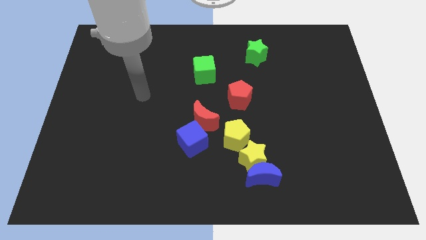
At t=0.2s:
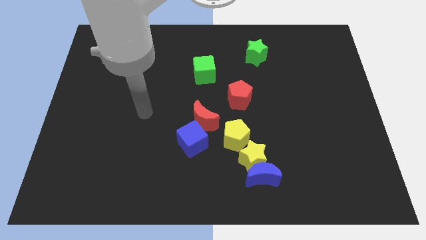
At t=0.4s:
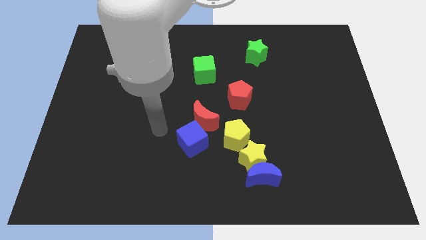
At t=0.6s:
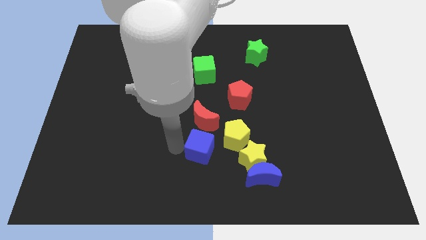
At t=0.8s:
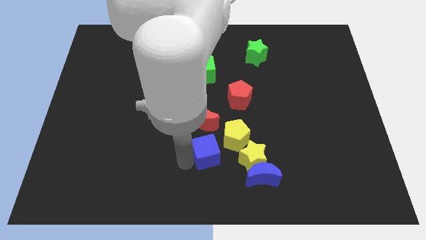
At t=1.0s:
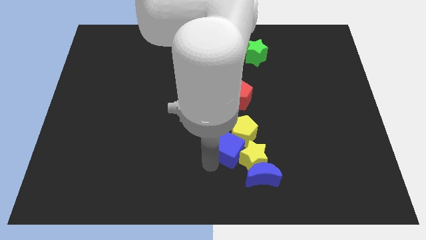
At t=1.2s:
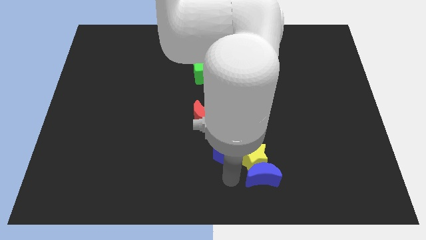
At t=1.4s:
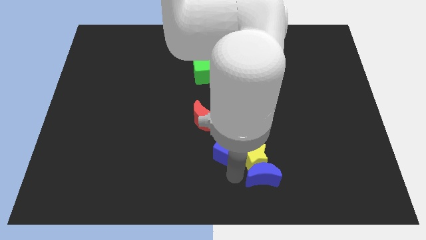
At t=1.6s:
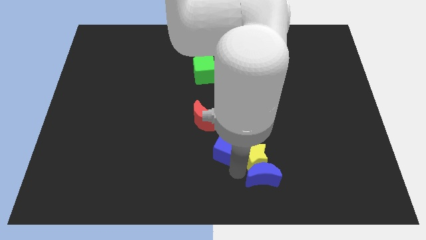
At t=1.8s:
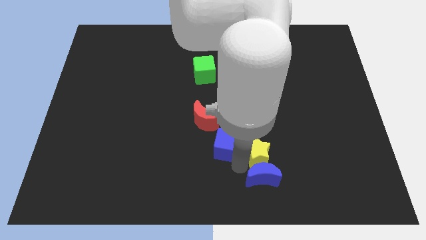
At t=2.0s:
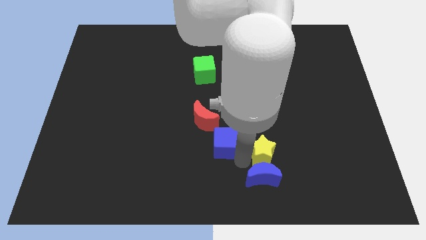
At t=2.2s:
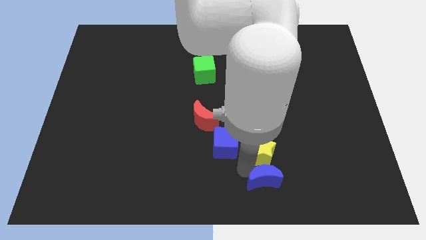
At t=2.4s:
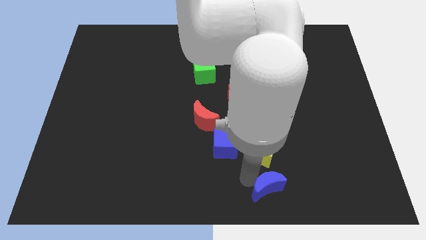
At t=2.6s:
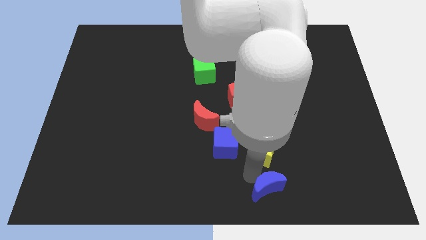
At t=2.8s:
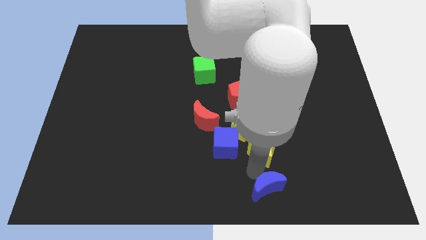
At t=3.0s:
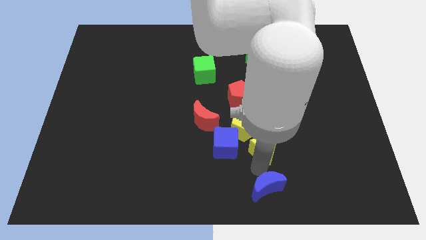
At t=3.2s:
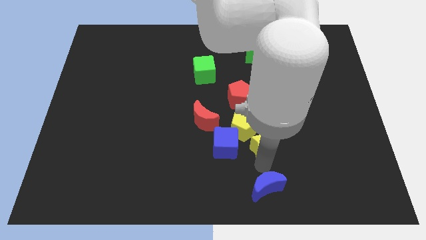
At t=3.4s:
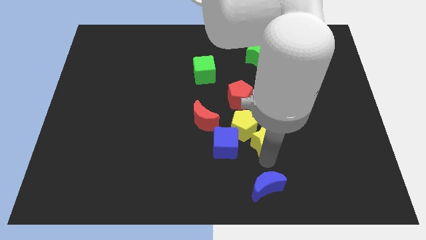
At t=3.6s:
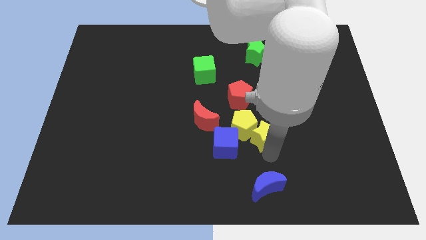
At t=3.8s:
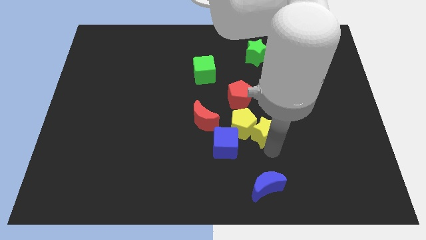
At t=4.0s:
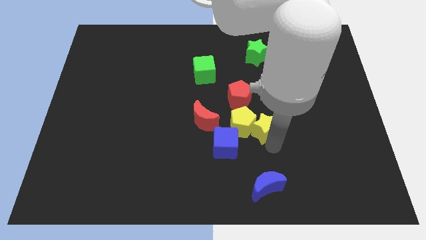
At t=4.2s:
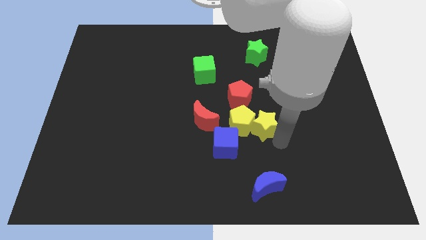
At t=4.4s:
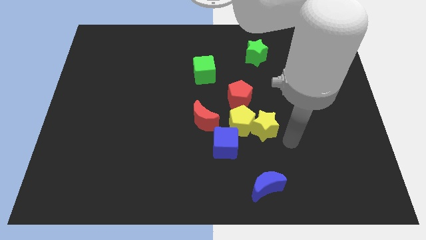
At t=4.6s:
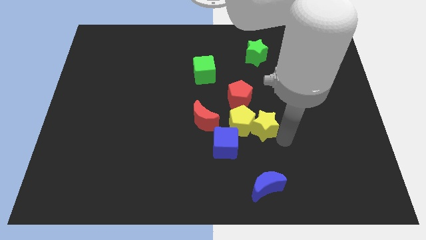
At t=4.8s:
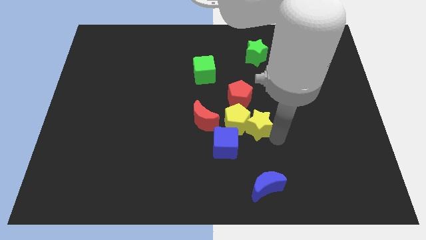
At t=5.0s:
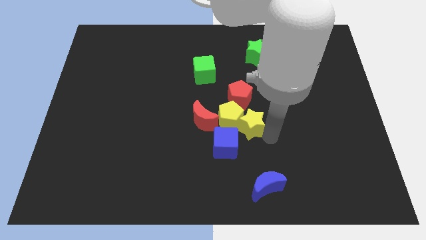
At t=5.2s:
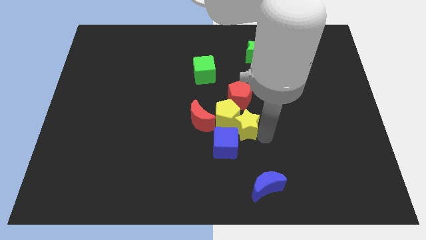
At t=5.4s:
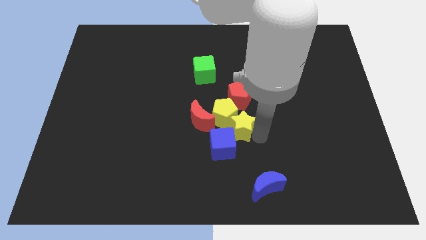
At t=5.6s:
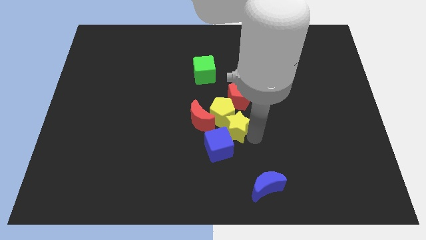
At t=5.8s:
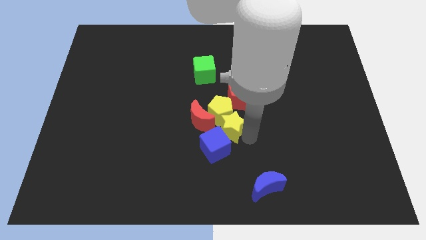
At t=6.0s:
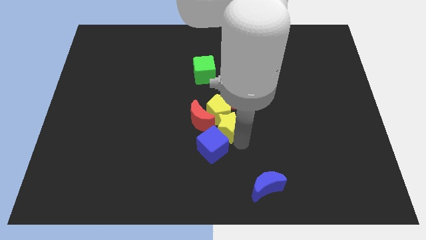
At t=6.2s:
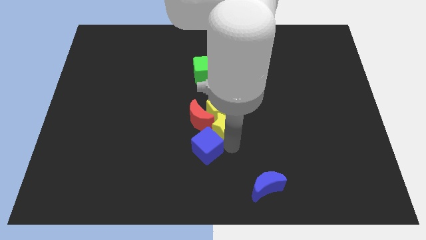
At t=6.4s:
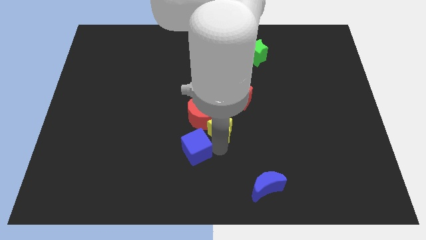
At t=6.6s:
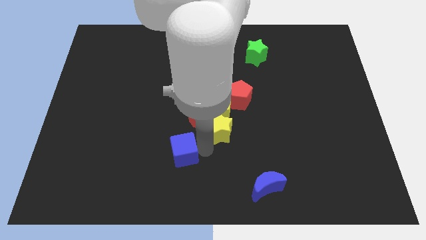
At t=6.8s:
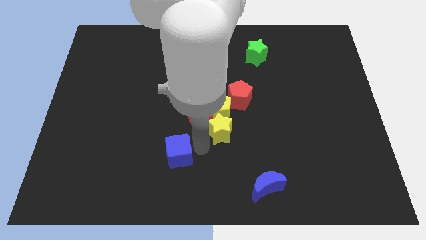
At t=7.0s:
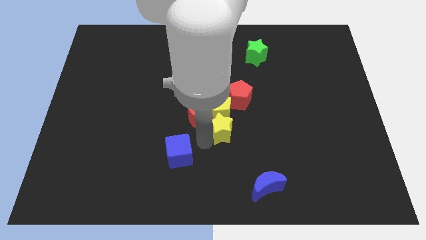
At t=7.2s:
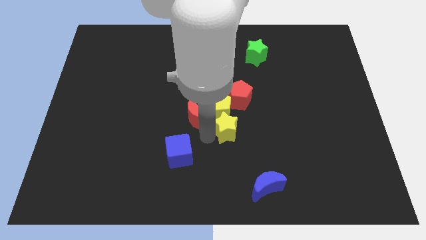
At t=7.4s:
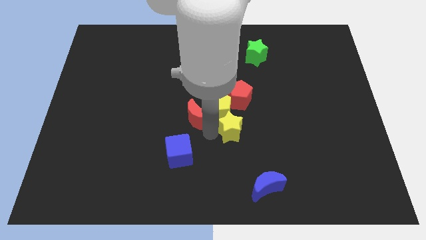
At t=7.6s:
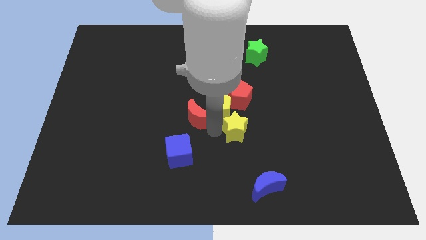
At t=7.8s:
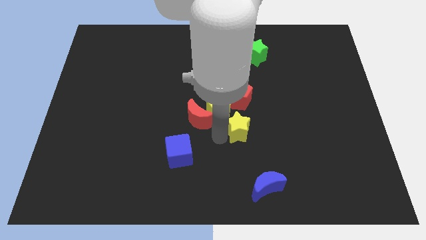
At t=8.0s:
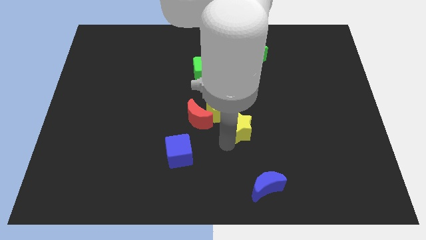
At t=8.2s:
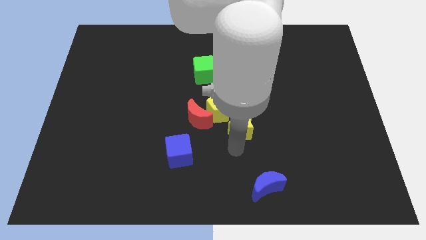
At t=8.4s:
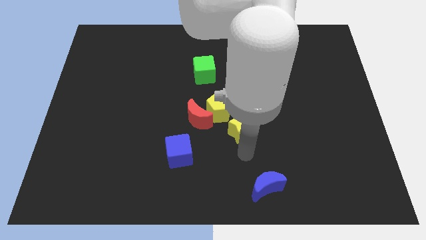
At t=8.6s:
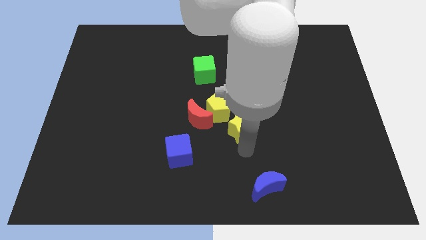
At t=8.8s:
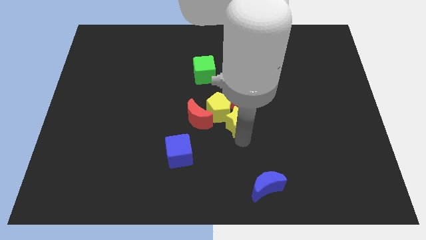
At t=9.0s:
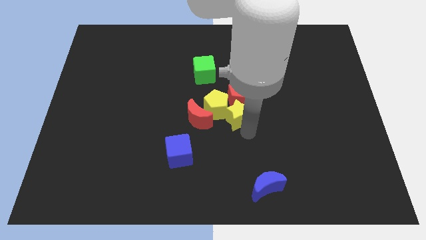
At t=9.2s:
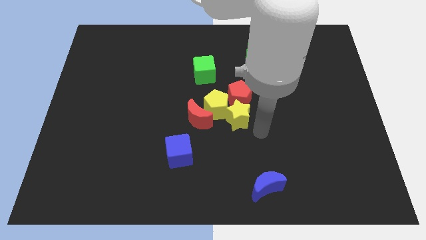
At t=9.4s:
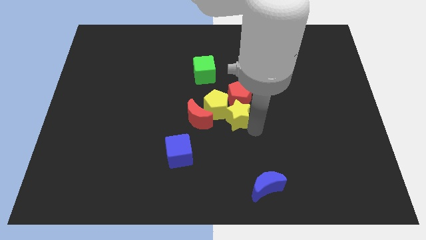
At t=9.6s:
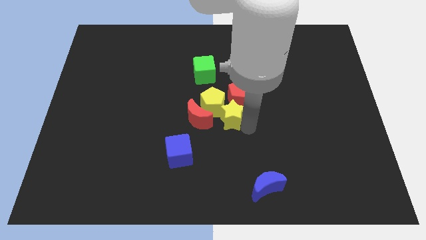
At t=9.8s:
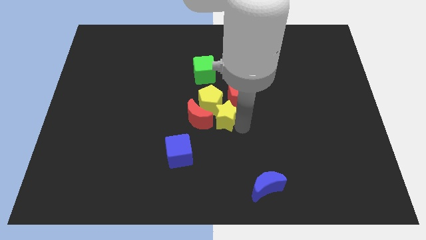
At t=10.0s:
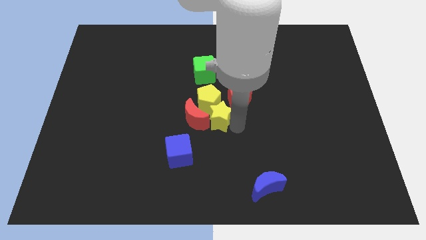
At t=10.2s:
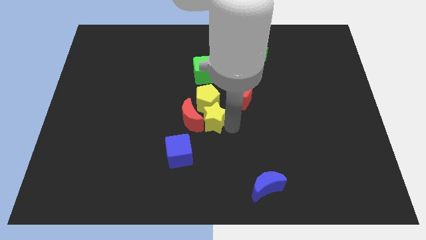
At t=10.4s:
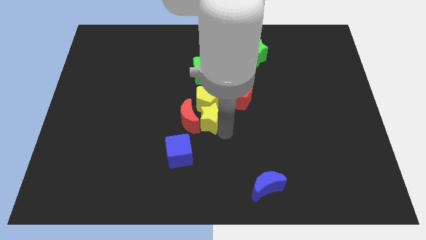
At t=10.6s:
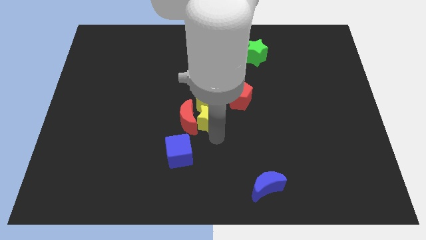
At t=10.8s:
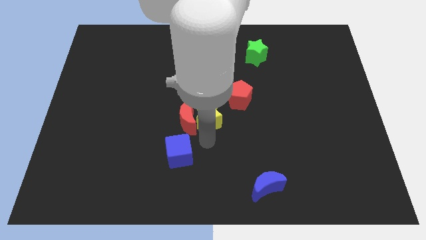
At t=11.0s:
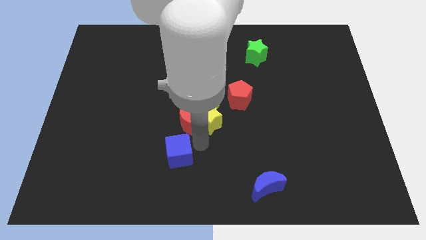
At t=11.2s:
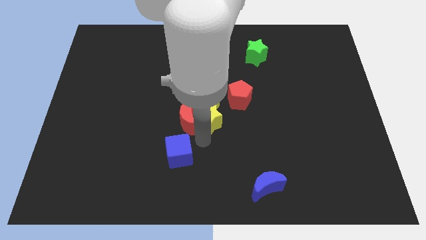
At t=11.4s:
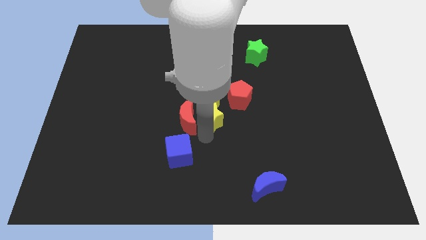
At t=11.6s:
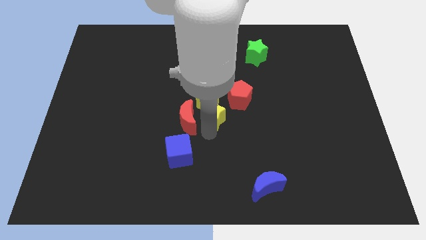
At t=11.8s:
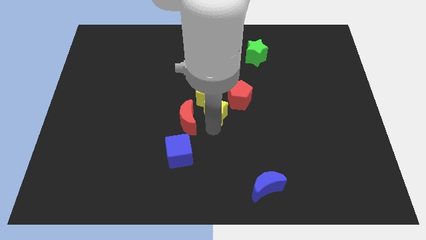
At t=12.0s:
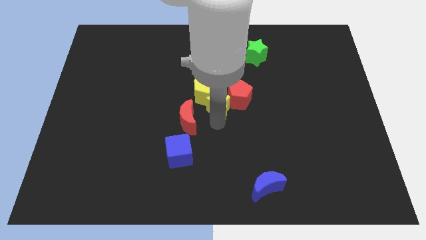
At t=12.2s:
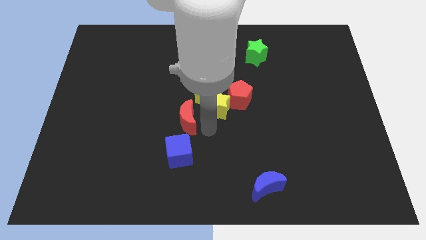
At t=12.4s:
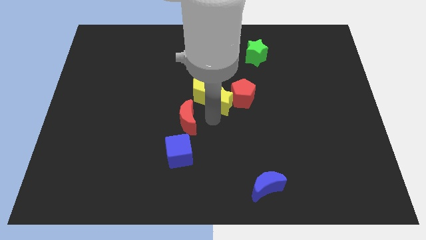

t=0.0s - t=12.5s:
move the yellow star diagonally down and to the right of the green cube

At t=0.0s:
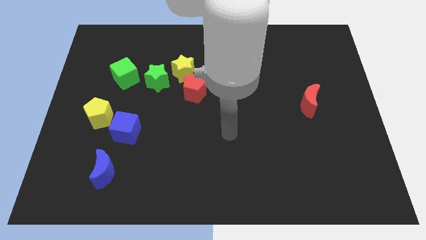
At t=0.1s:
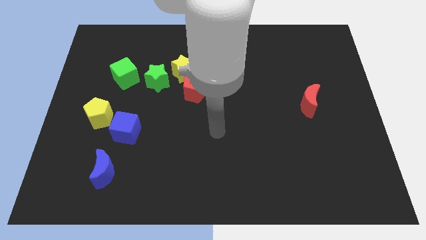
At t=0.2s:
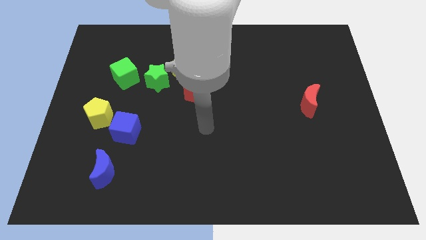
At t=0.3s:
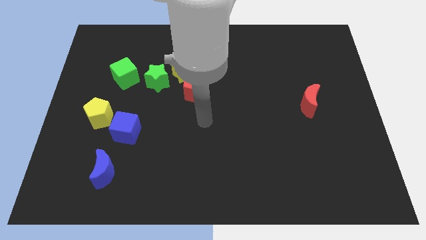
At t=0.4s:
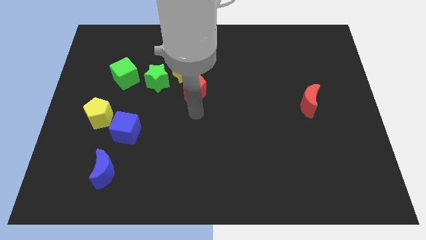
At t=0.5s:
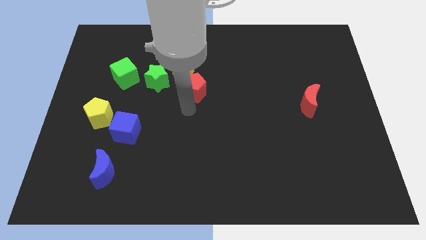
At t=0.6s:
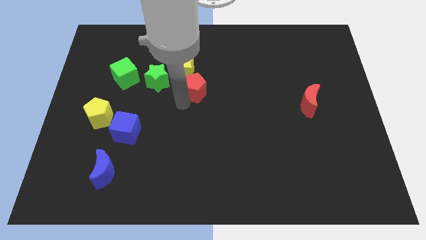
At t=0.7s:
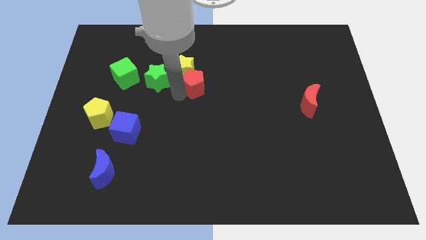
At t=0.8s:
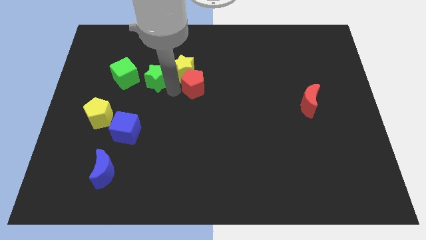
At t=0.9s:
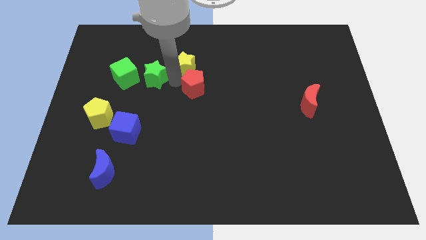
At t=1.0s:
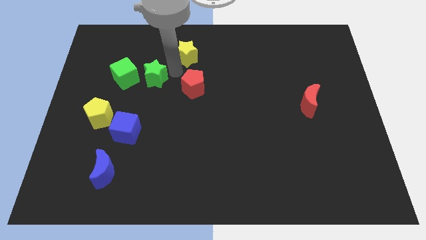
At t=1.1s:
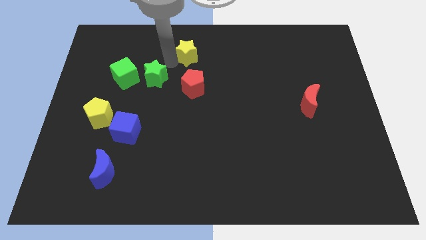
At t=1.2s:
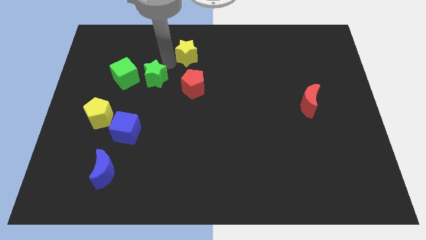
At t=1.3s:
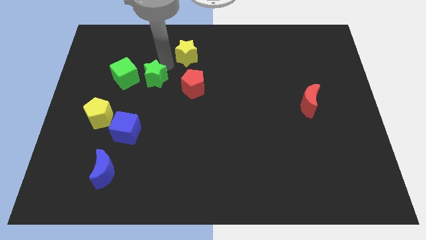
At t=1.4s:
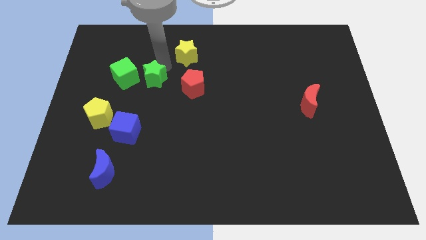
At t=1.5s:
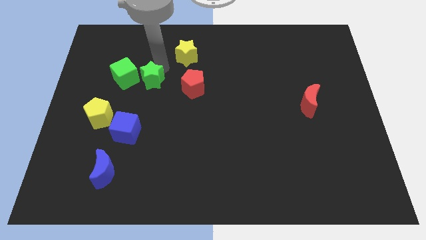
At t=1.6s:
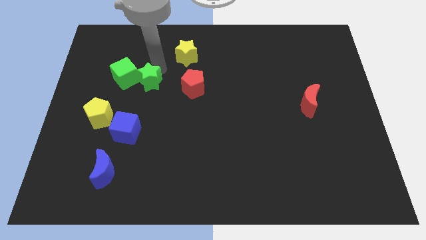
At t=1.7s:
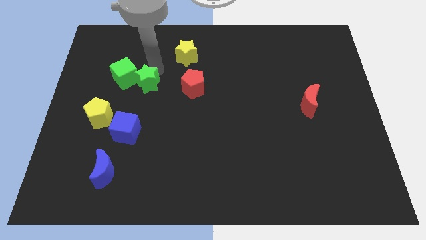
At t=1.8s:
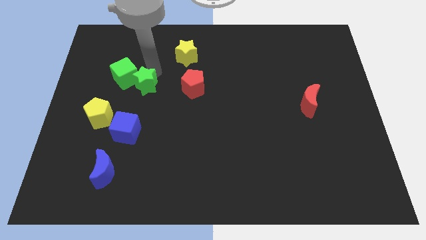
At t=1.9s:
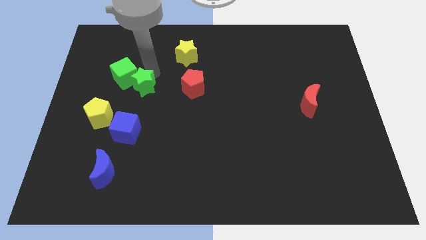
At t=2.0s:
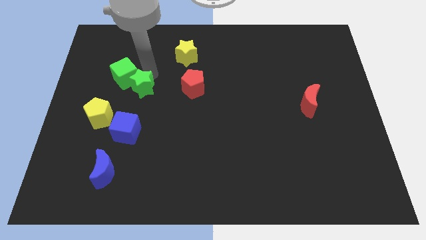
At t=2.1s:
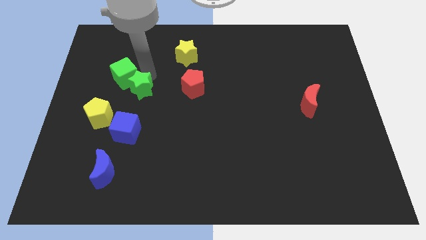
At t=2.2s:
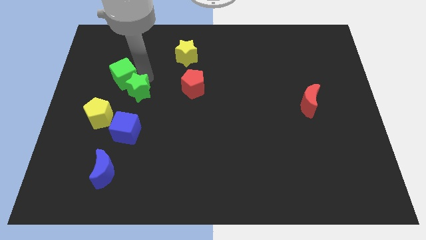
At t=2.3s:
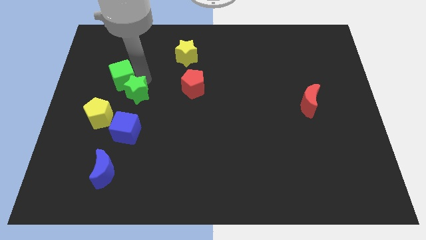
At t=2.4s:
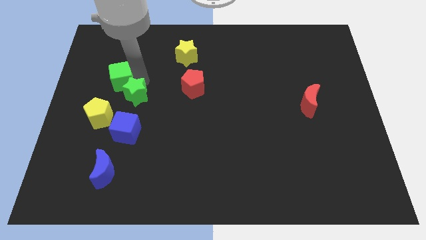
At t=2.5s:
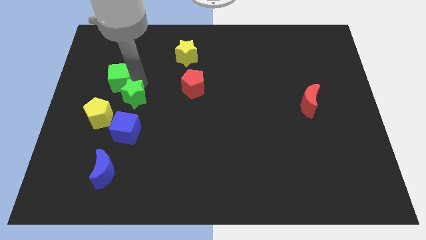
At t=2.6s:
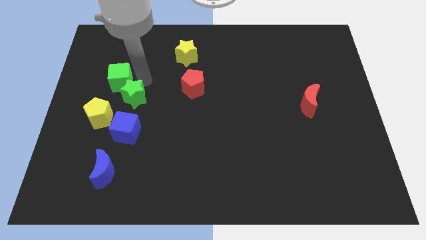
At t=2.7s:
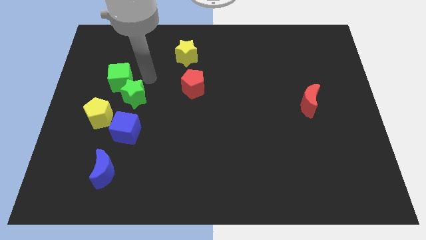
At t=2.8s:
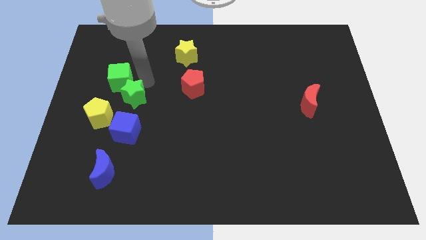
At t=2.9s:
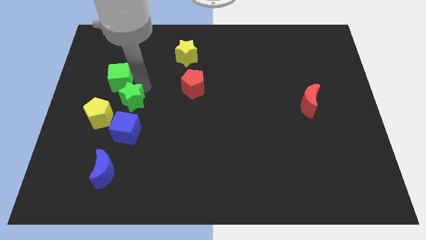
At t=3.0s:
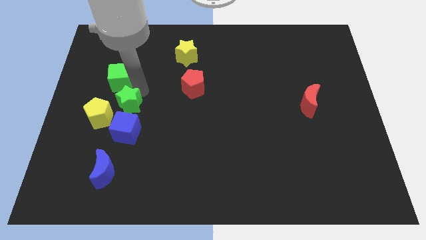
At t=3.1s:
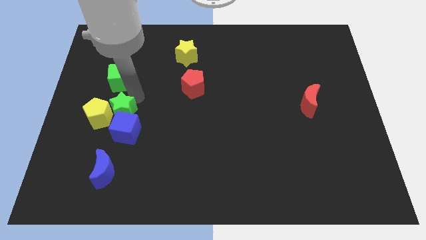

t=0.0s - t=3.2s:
push the green star above the blue moon
